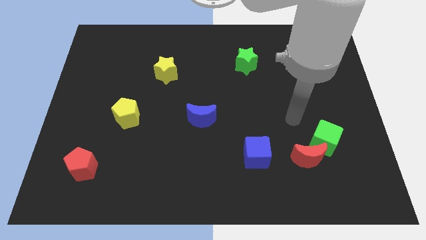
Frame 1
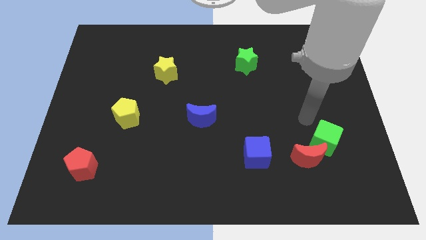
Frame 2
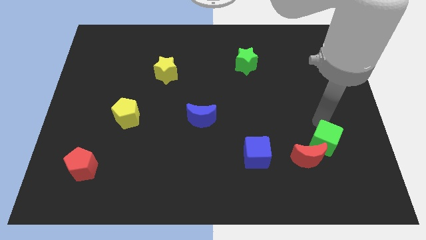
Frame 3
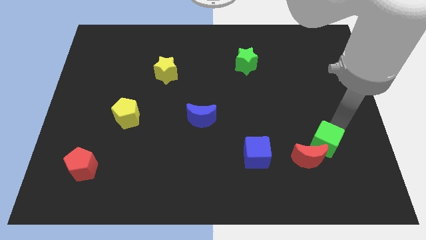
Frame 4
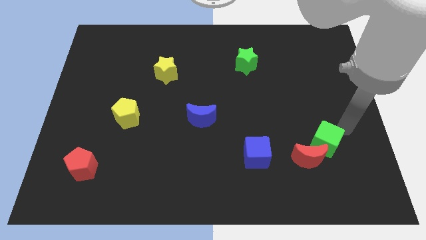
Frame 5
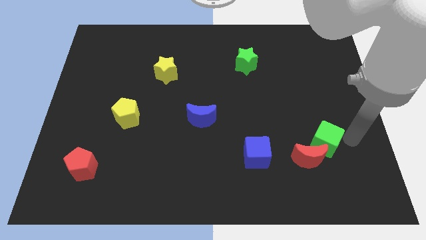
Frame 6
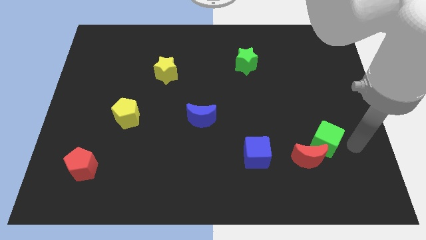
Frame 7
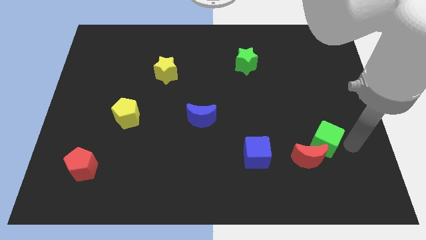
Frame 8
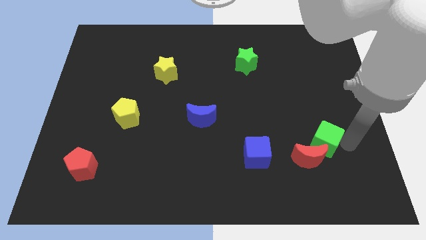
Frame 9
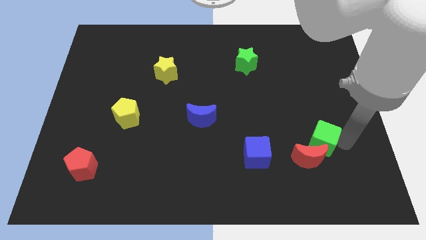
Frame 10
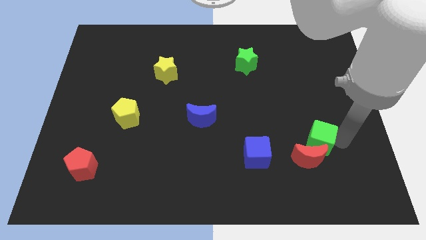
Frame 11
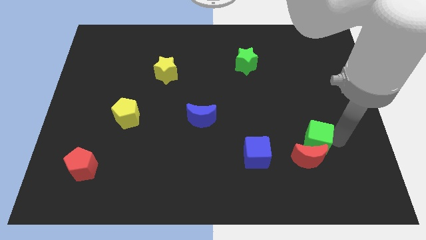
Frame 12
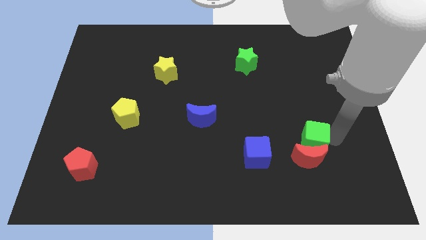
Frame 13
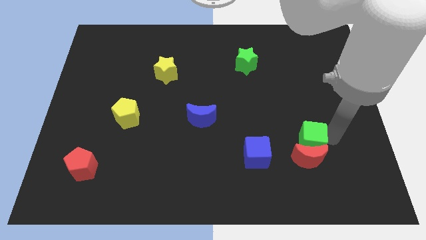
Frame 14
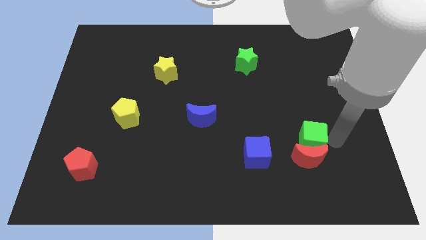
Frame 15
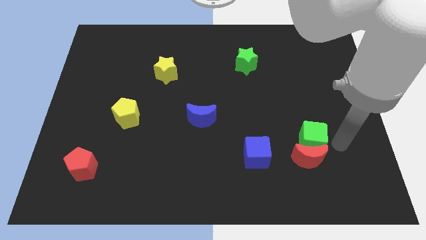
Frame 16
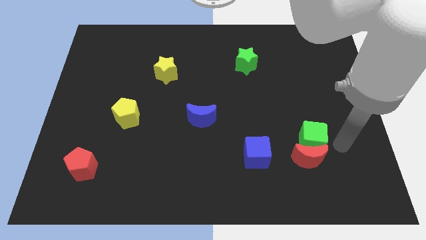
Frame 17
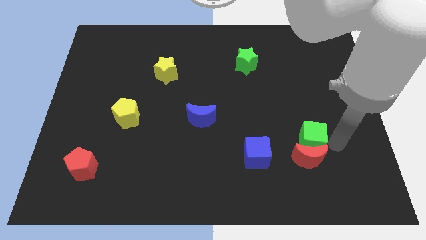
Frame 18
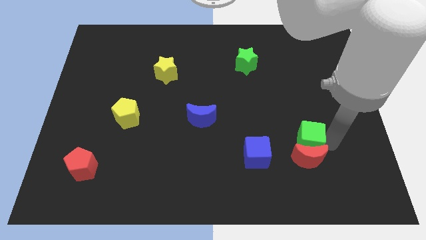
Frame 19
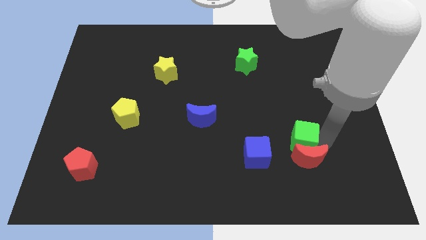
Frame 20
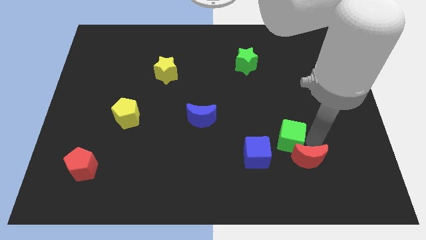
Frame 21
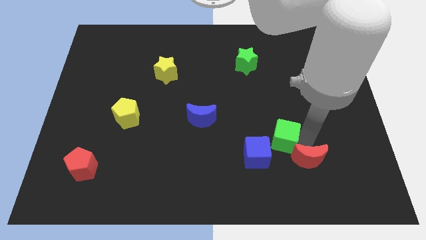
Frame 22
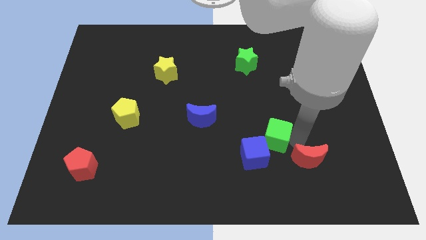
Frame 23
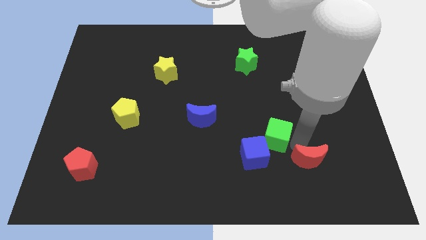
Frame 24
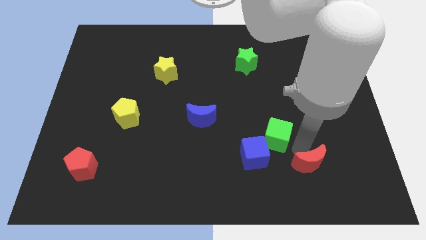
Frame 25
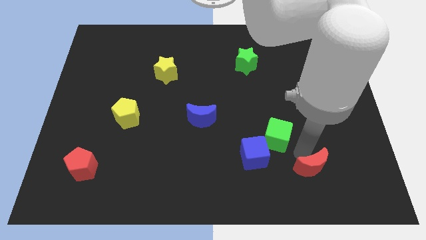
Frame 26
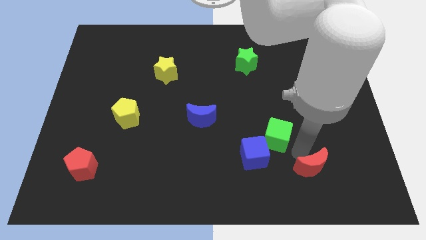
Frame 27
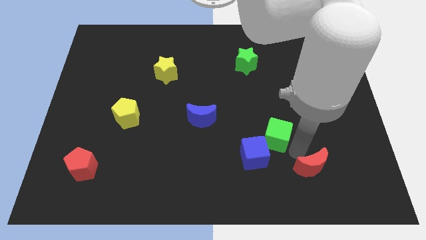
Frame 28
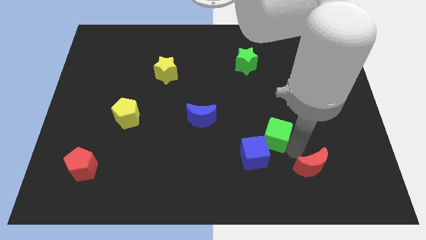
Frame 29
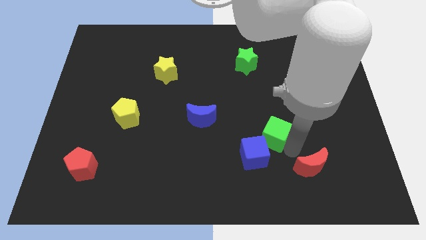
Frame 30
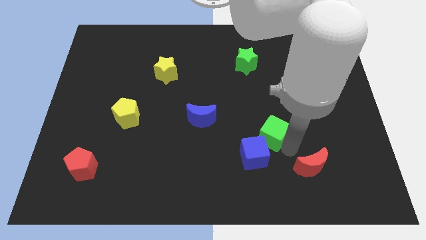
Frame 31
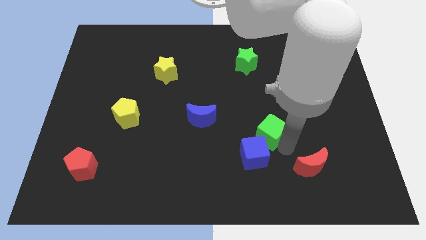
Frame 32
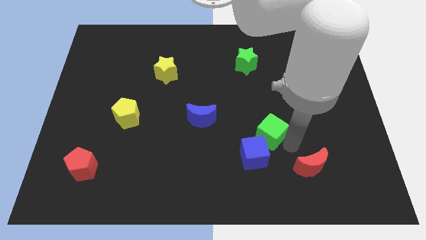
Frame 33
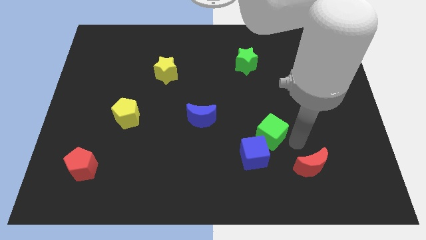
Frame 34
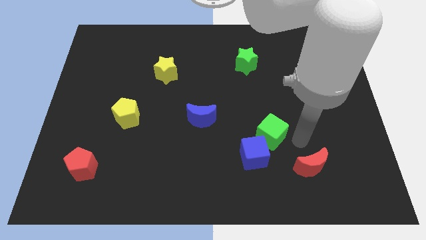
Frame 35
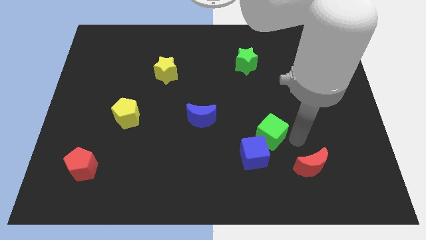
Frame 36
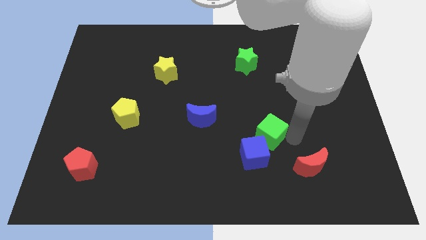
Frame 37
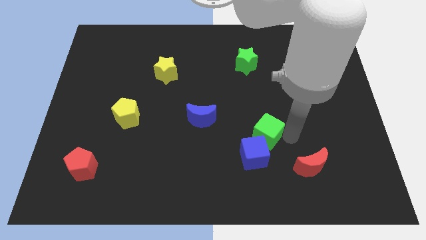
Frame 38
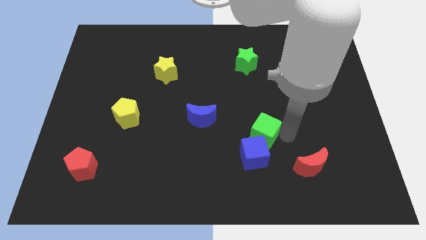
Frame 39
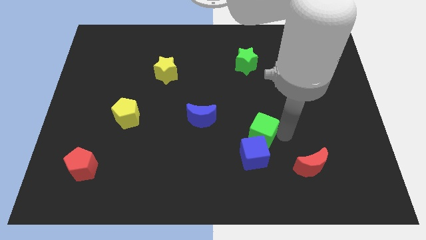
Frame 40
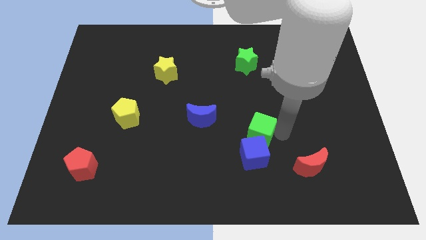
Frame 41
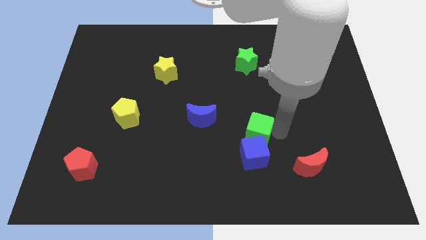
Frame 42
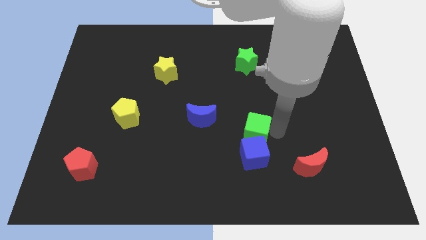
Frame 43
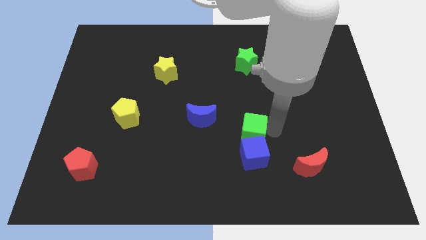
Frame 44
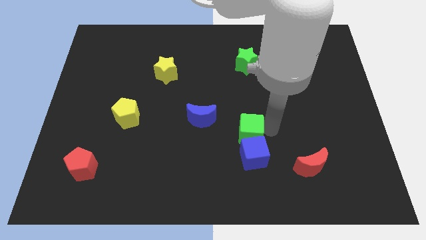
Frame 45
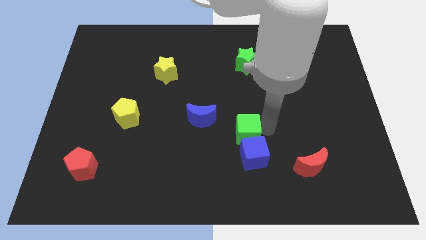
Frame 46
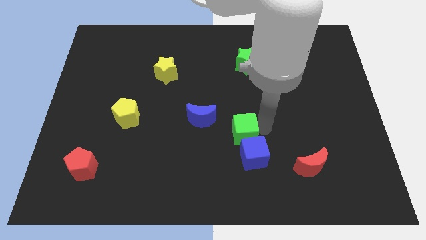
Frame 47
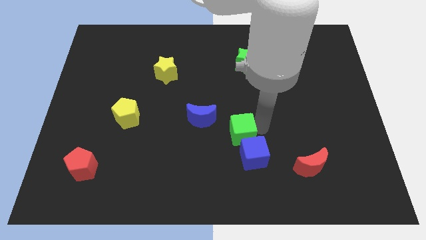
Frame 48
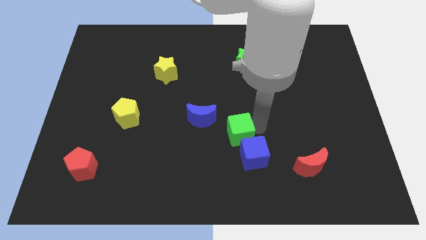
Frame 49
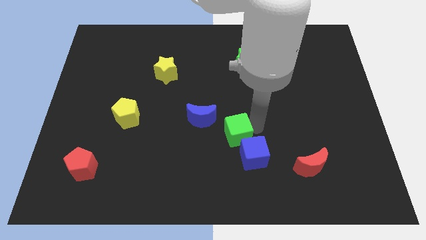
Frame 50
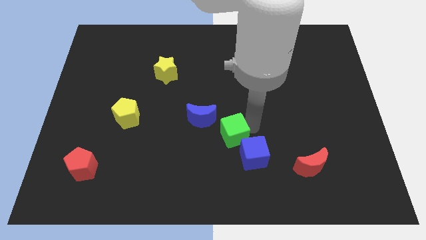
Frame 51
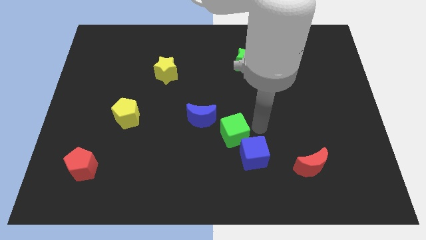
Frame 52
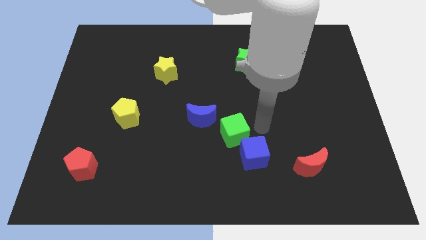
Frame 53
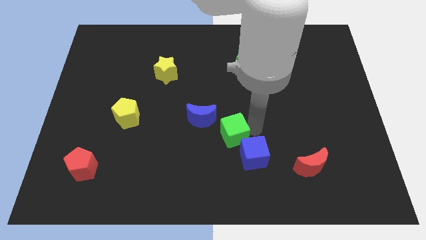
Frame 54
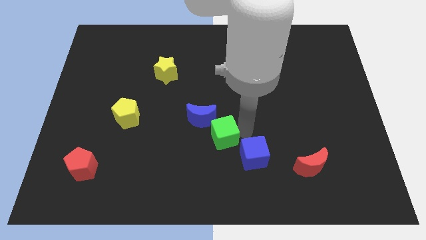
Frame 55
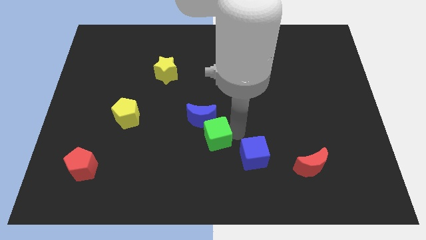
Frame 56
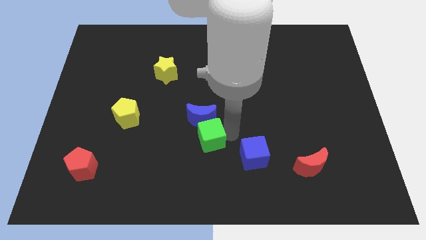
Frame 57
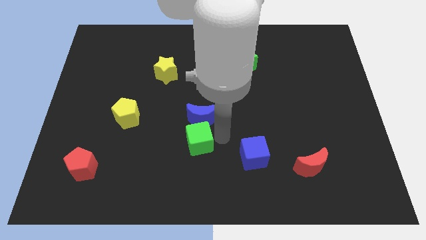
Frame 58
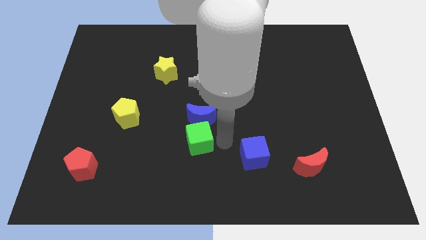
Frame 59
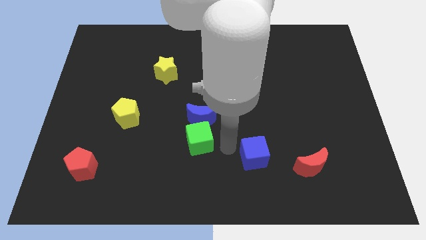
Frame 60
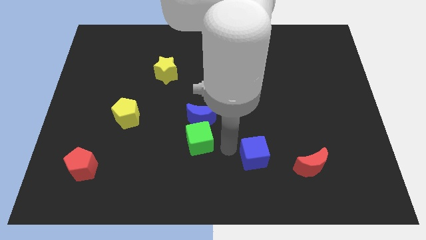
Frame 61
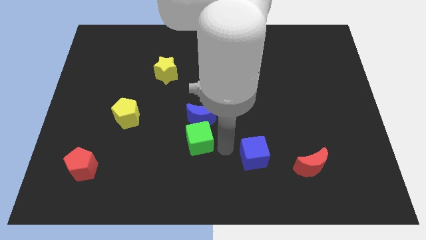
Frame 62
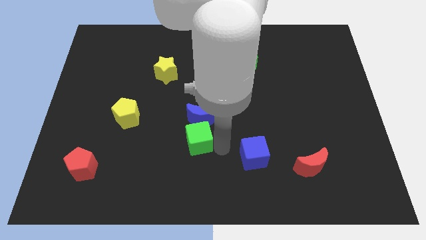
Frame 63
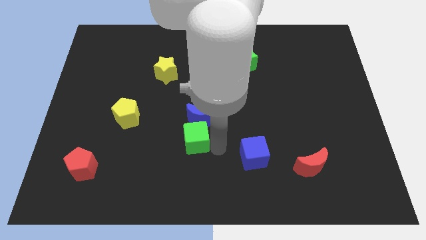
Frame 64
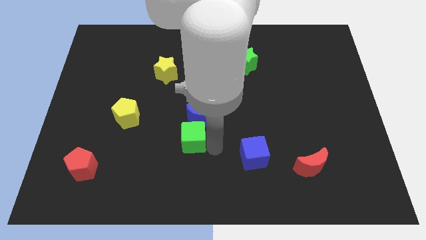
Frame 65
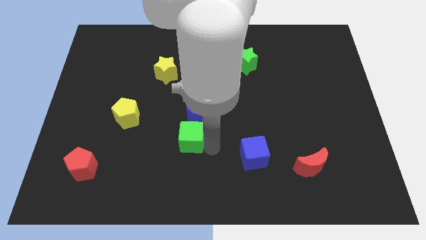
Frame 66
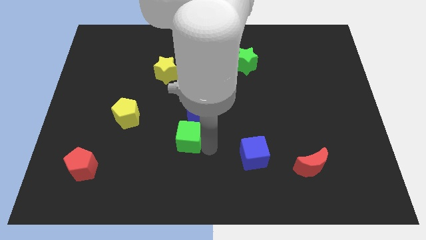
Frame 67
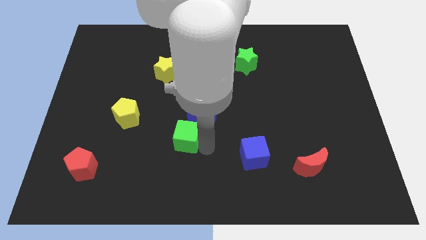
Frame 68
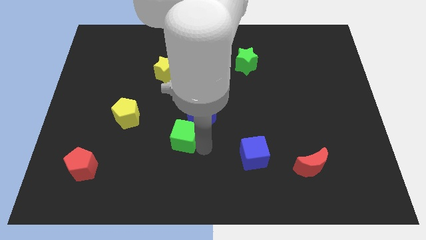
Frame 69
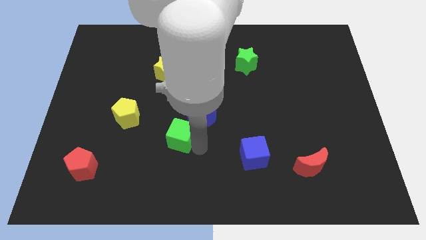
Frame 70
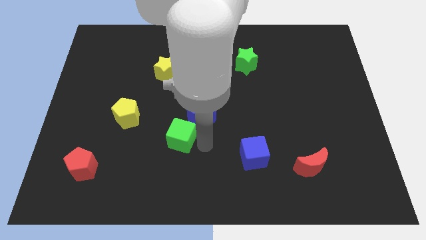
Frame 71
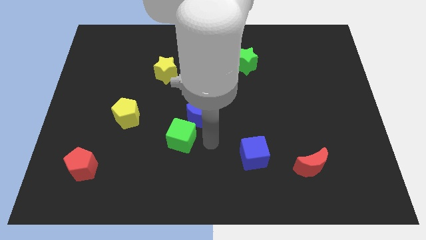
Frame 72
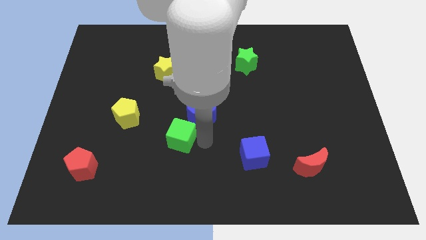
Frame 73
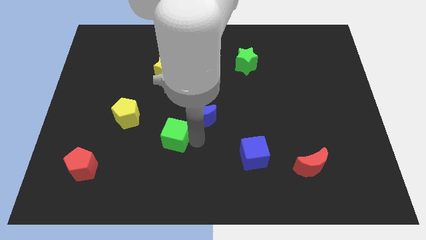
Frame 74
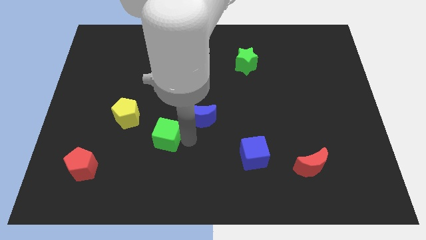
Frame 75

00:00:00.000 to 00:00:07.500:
slide the green cube to the bottom right of the yellow pentagon
